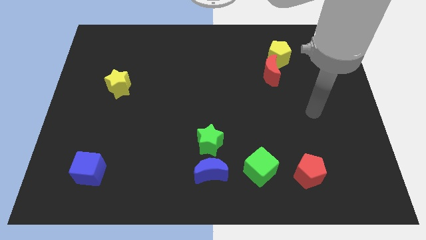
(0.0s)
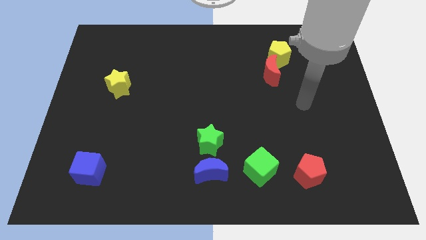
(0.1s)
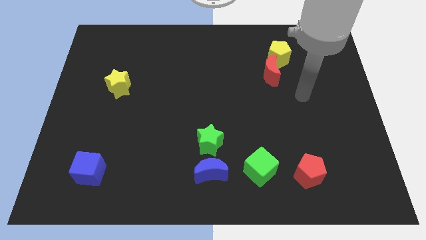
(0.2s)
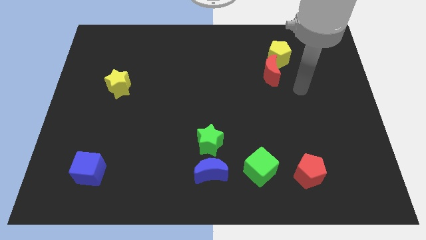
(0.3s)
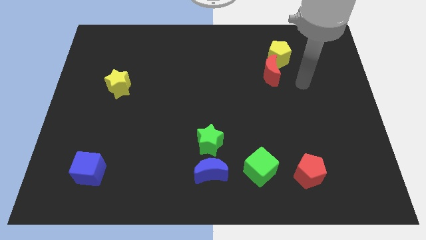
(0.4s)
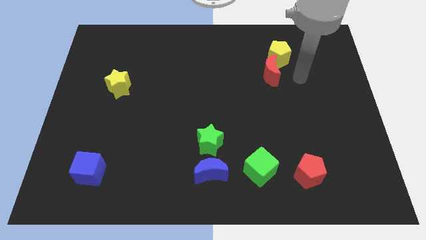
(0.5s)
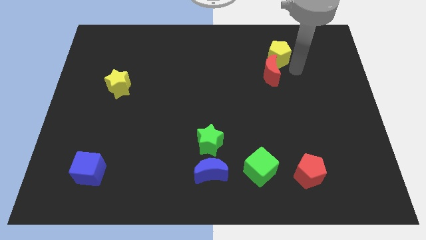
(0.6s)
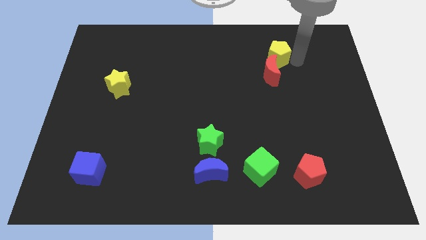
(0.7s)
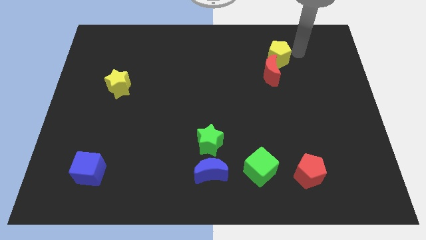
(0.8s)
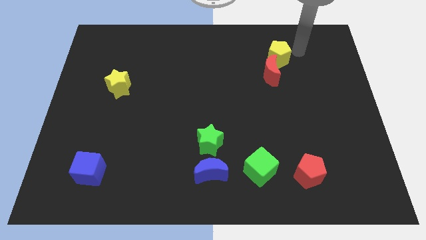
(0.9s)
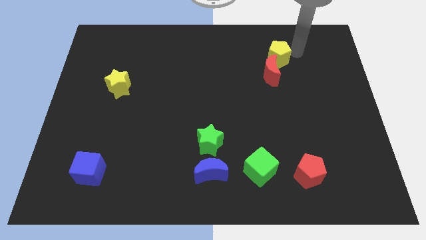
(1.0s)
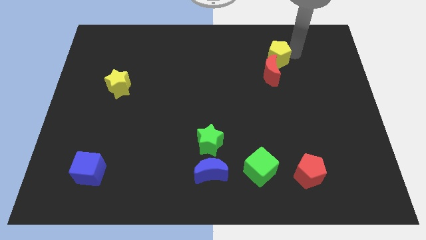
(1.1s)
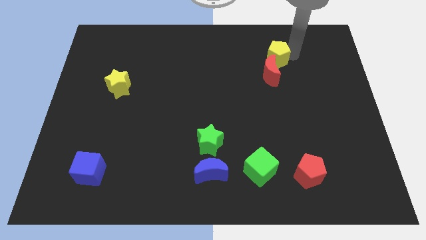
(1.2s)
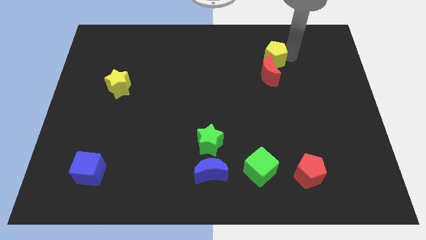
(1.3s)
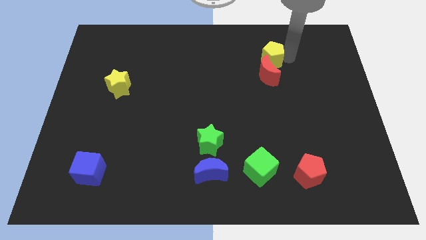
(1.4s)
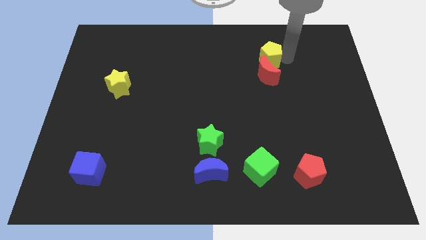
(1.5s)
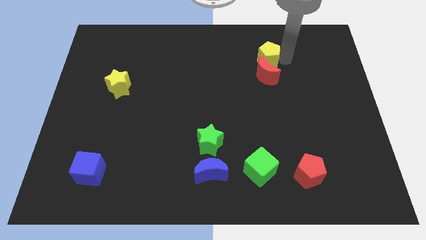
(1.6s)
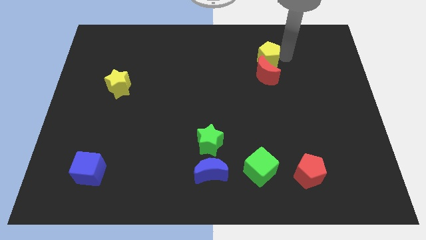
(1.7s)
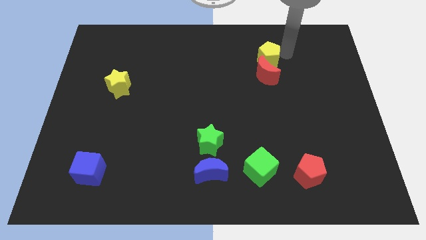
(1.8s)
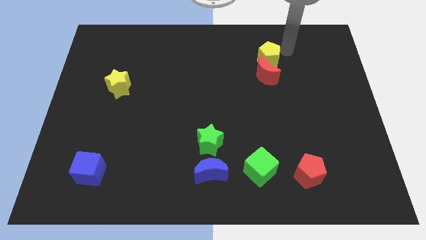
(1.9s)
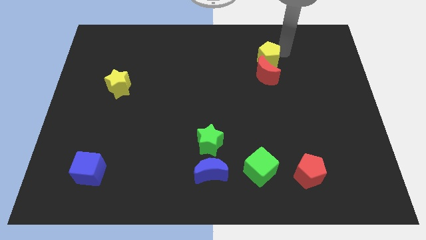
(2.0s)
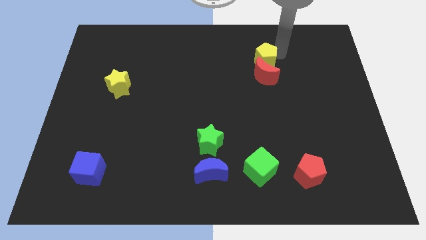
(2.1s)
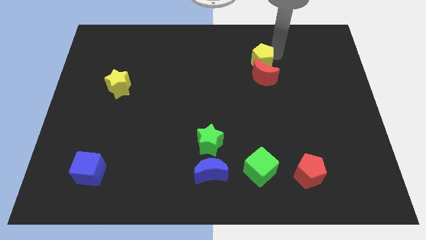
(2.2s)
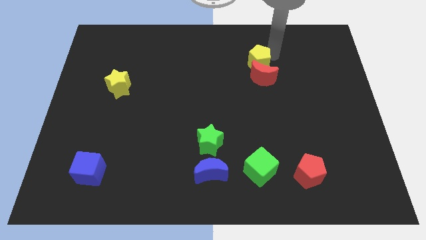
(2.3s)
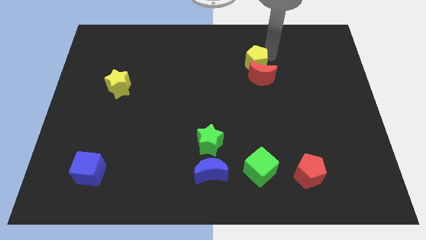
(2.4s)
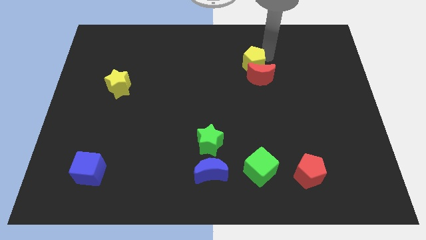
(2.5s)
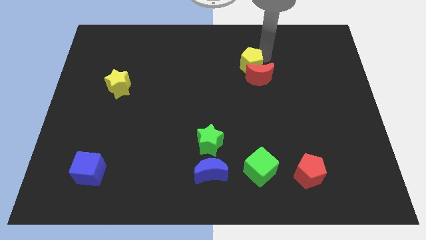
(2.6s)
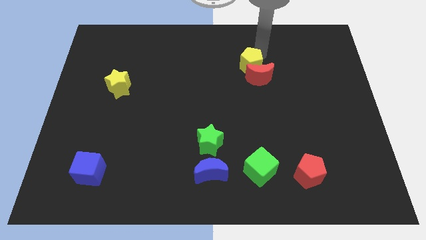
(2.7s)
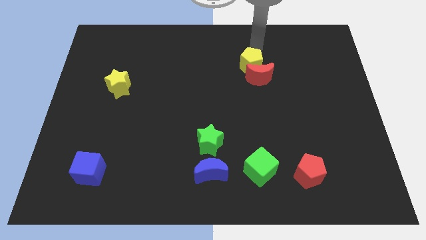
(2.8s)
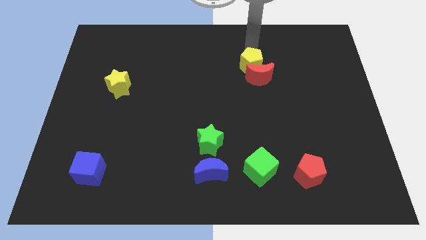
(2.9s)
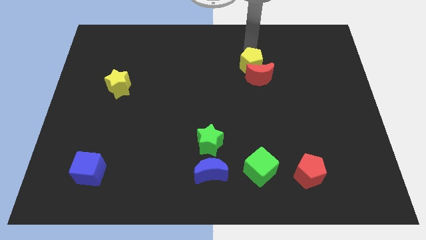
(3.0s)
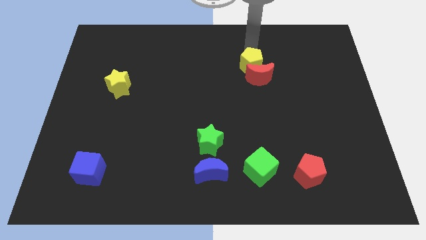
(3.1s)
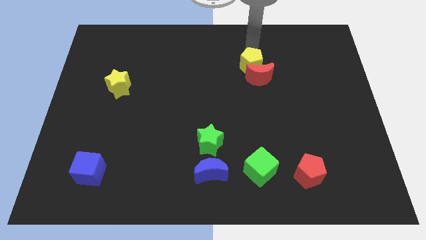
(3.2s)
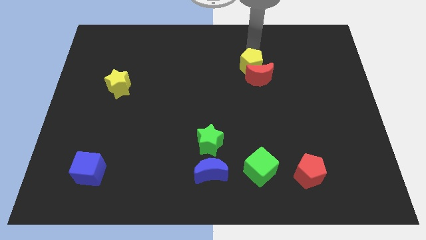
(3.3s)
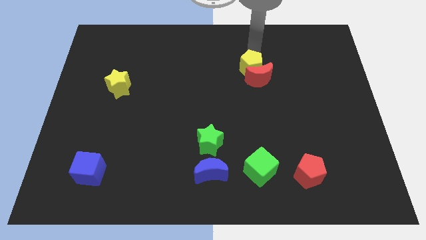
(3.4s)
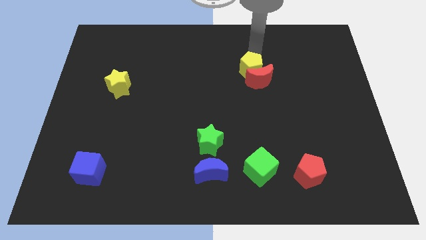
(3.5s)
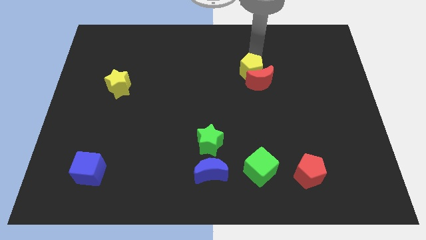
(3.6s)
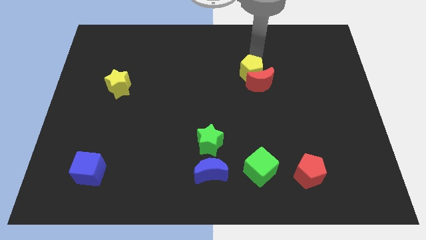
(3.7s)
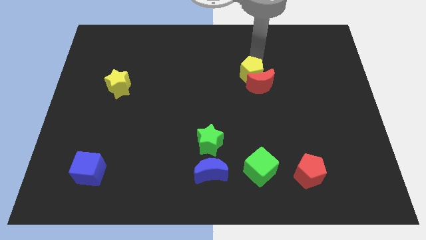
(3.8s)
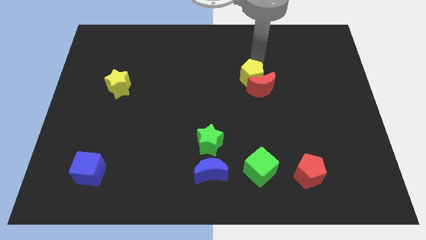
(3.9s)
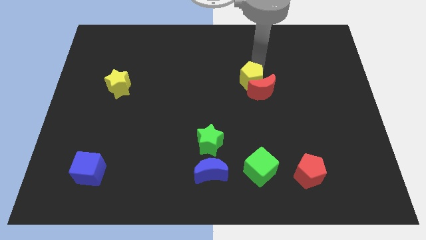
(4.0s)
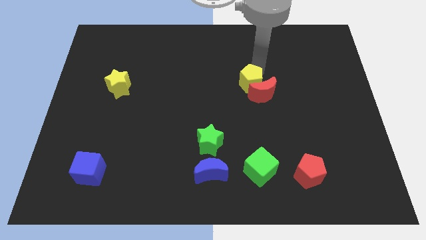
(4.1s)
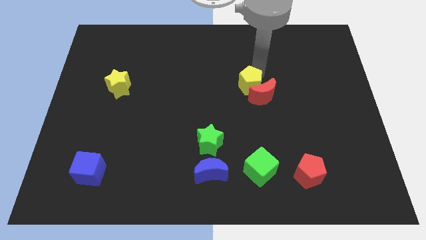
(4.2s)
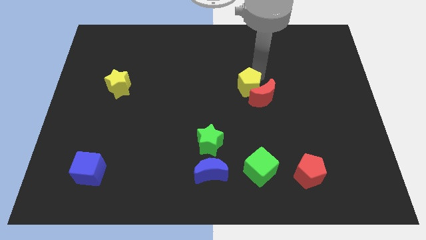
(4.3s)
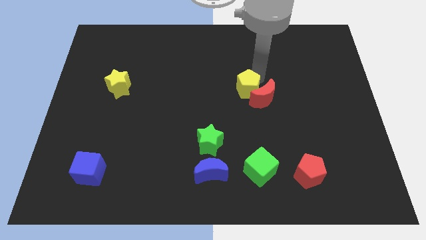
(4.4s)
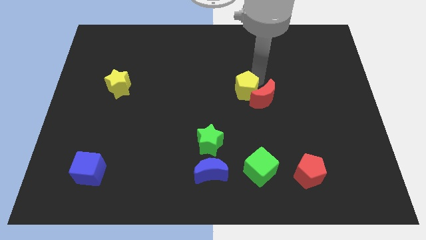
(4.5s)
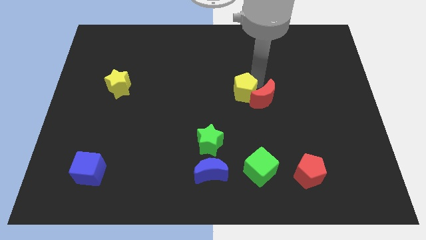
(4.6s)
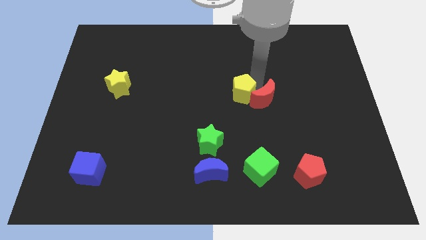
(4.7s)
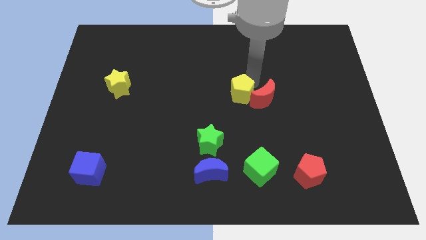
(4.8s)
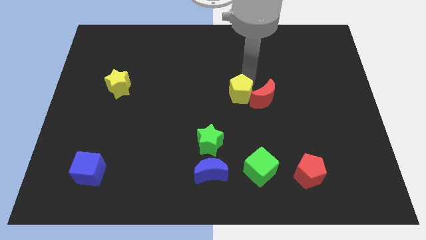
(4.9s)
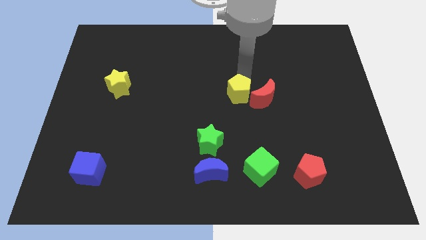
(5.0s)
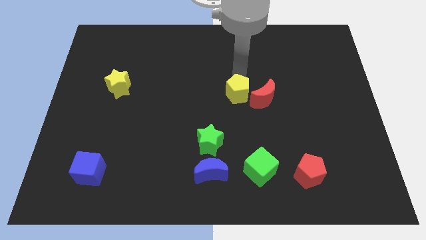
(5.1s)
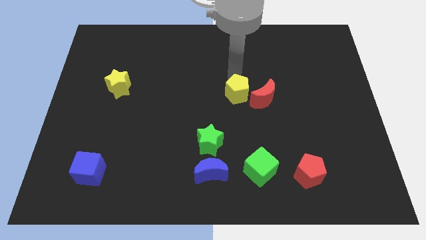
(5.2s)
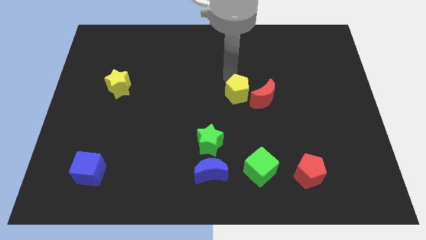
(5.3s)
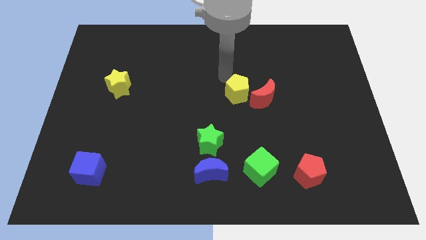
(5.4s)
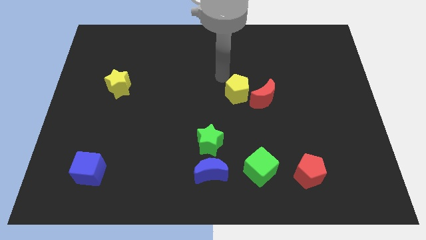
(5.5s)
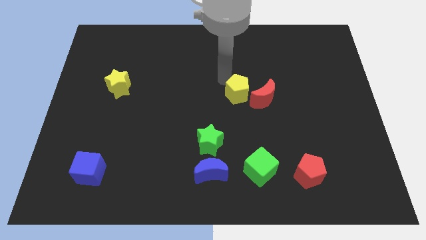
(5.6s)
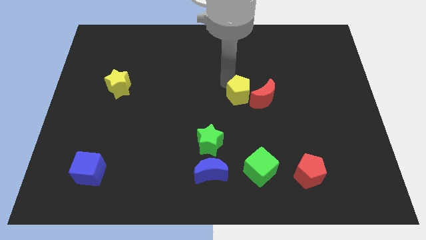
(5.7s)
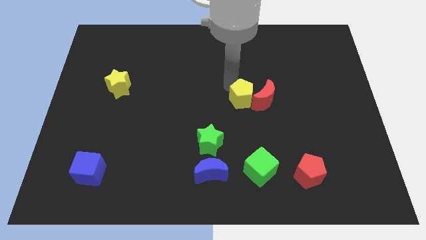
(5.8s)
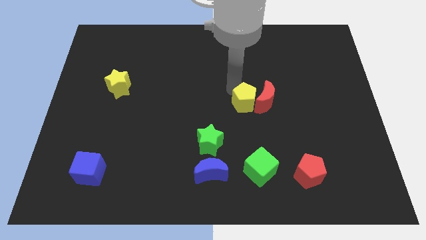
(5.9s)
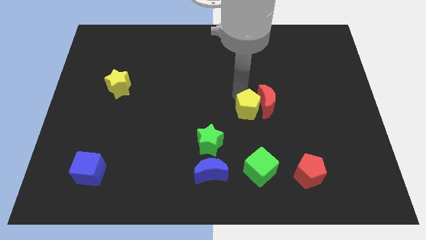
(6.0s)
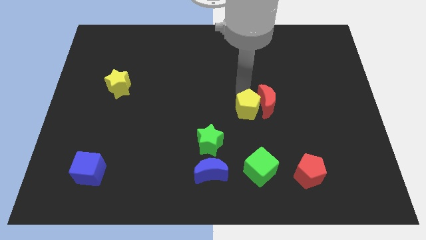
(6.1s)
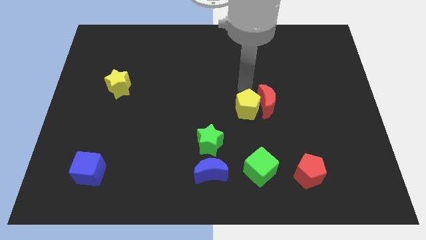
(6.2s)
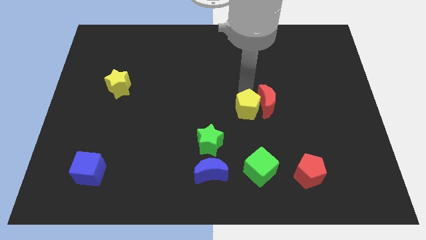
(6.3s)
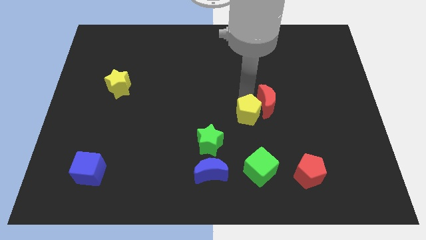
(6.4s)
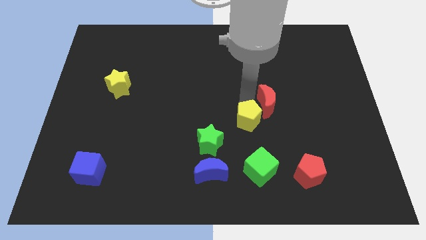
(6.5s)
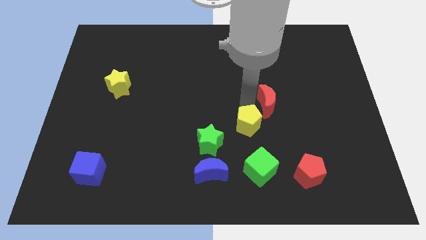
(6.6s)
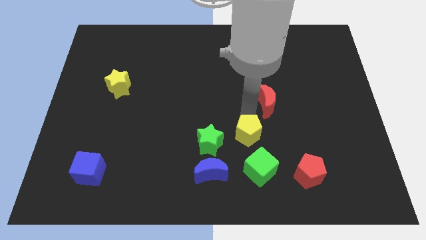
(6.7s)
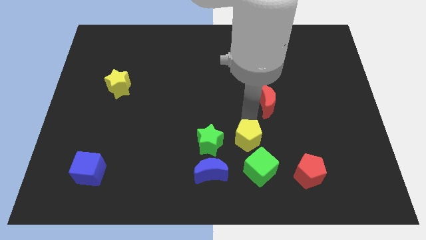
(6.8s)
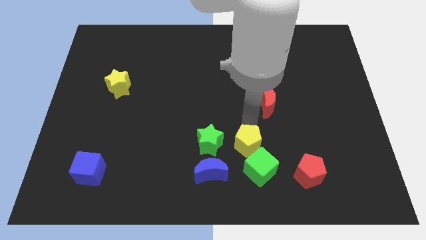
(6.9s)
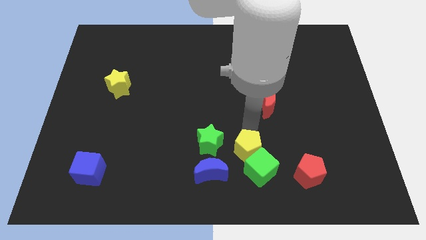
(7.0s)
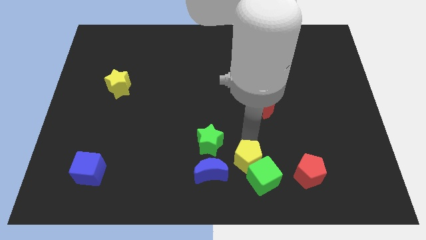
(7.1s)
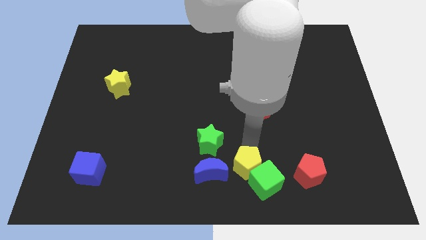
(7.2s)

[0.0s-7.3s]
move the yellow pentagon to the bottom side

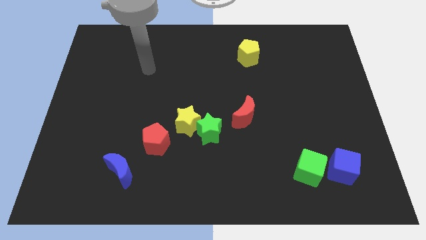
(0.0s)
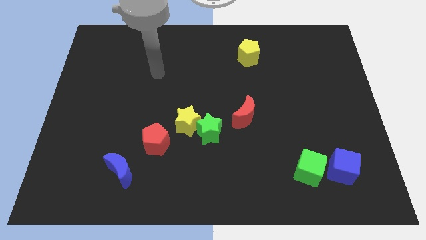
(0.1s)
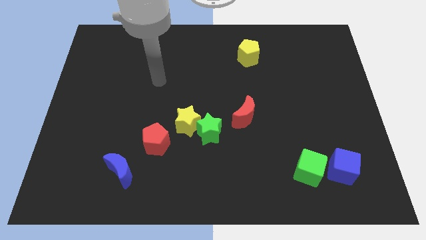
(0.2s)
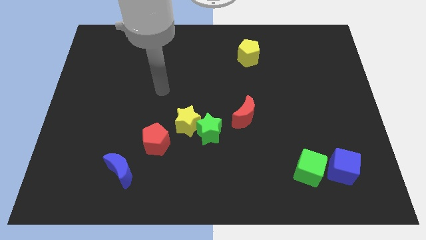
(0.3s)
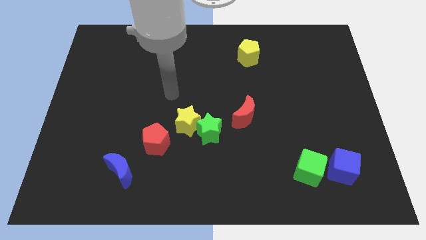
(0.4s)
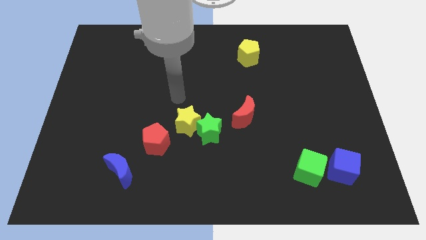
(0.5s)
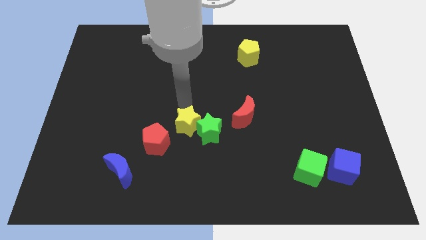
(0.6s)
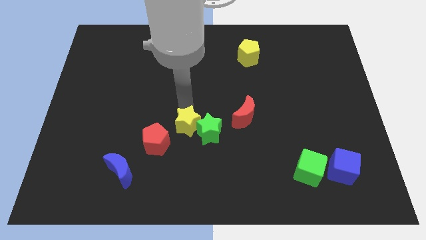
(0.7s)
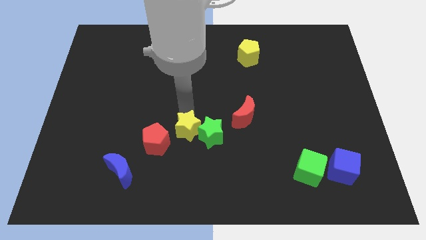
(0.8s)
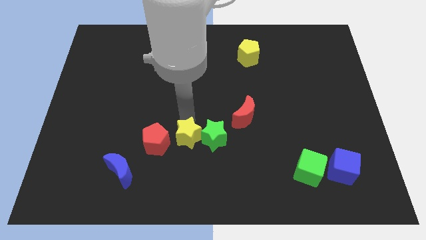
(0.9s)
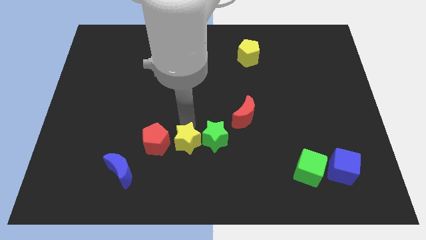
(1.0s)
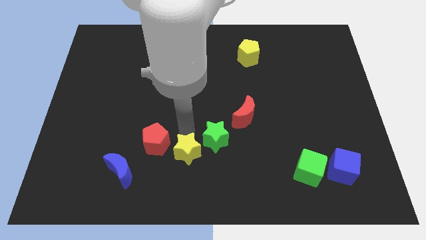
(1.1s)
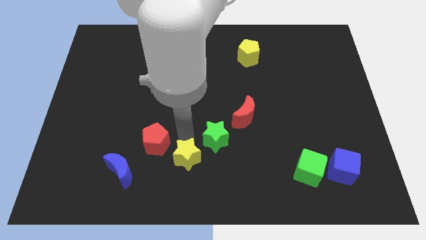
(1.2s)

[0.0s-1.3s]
move the yellow star to the bottom side
